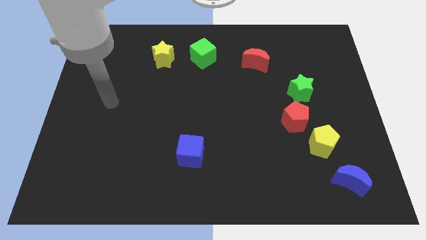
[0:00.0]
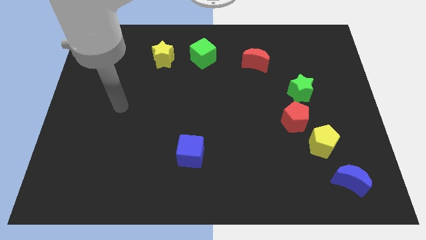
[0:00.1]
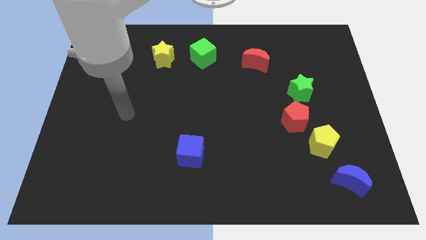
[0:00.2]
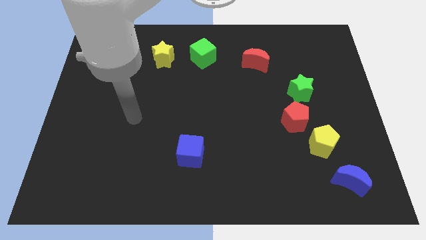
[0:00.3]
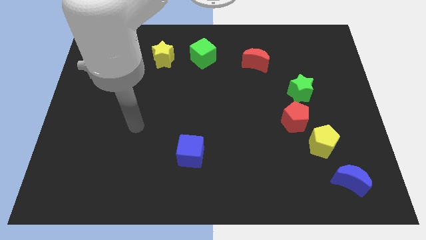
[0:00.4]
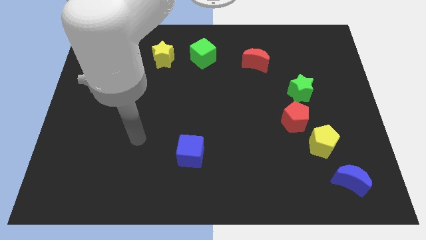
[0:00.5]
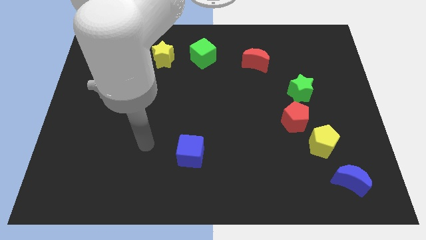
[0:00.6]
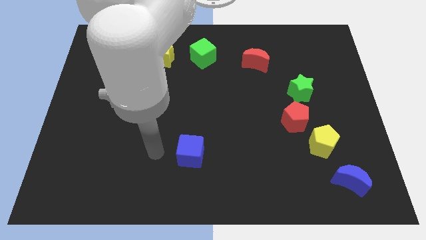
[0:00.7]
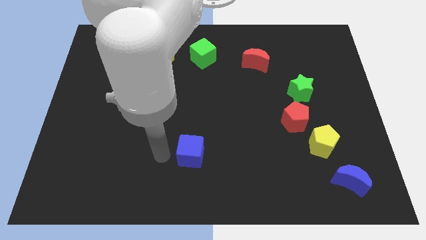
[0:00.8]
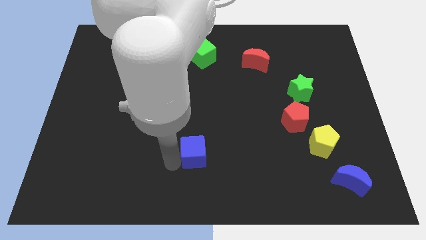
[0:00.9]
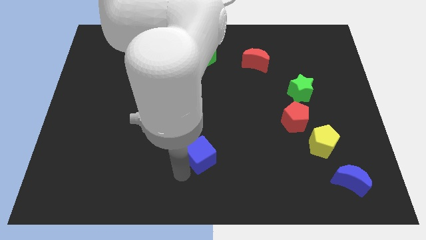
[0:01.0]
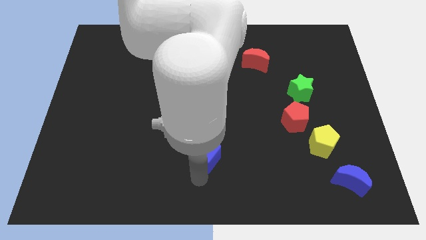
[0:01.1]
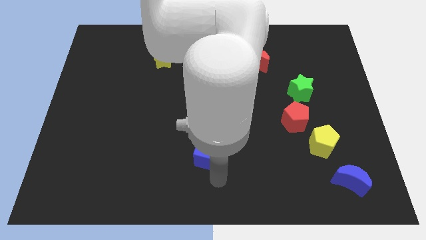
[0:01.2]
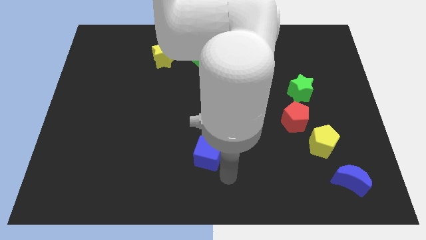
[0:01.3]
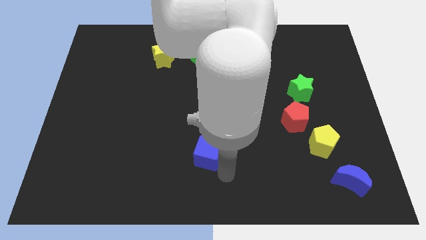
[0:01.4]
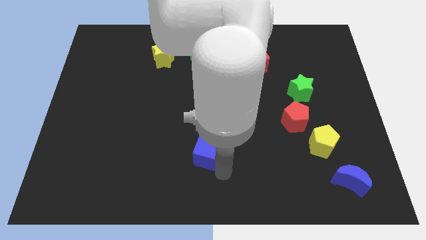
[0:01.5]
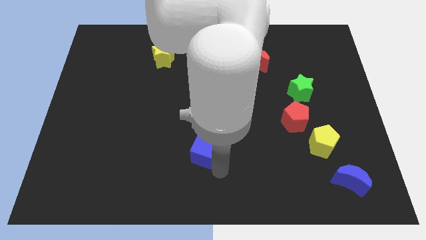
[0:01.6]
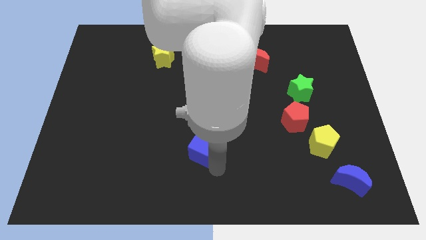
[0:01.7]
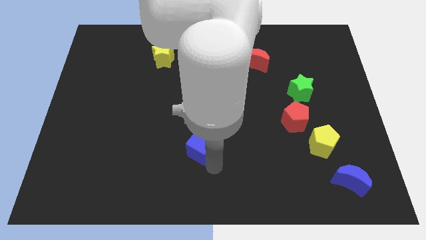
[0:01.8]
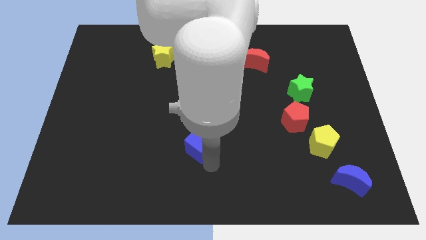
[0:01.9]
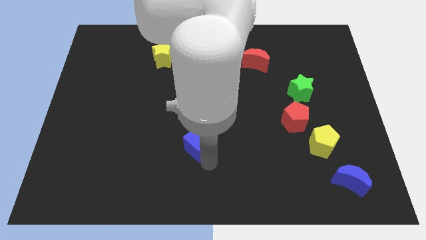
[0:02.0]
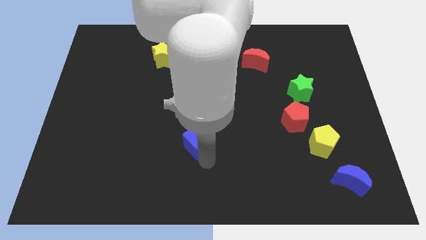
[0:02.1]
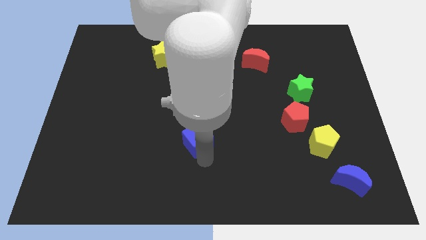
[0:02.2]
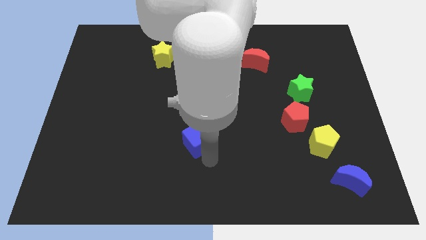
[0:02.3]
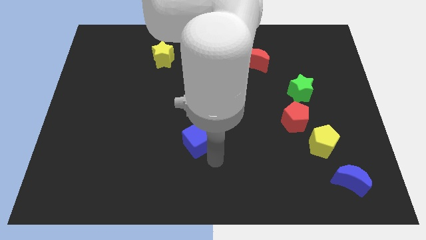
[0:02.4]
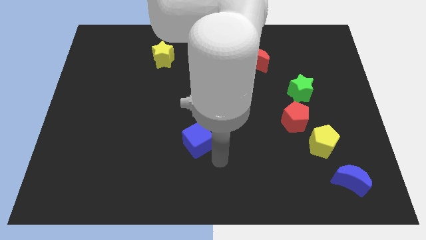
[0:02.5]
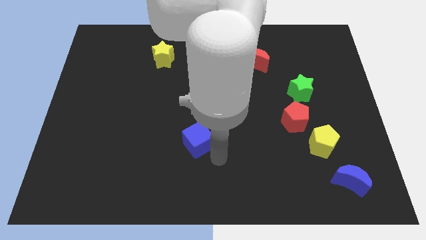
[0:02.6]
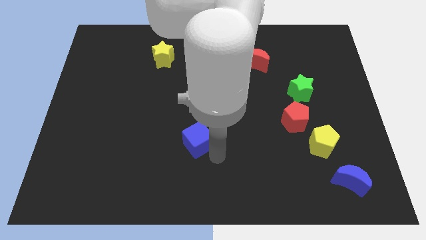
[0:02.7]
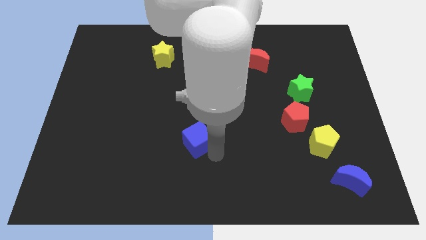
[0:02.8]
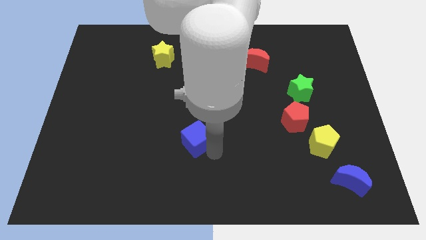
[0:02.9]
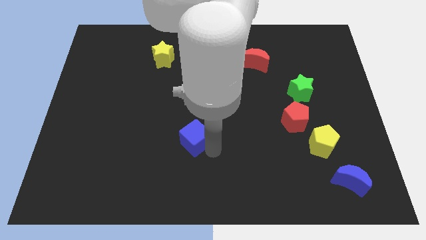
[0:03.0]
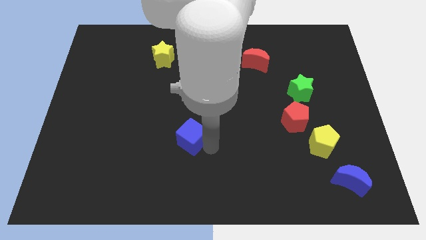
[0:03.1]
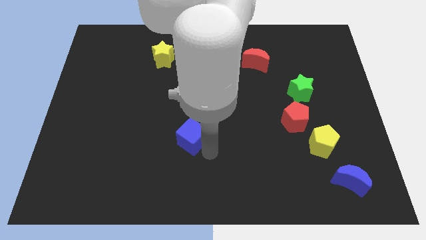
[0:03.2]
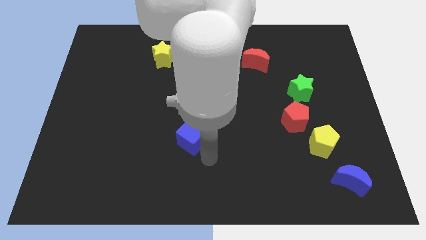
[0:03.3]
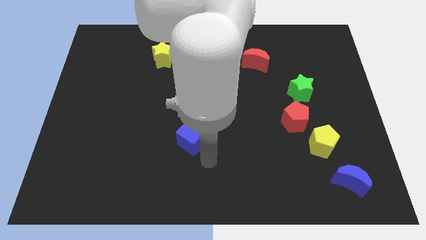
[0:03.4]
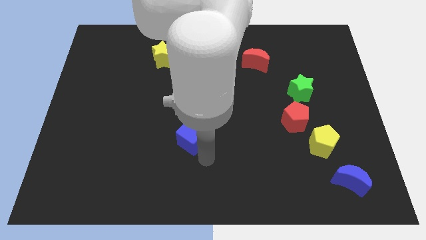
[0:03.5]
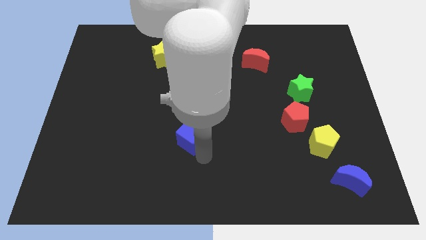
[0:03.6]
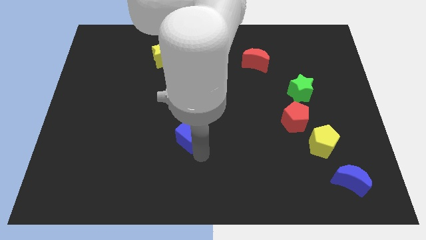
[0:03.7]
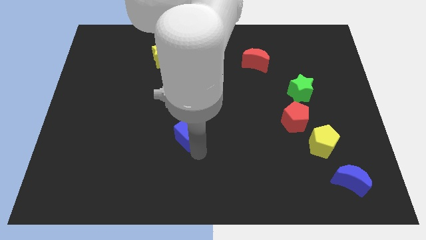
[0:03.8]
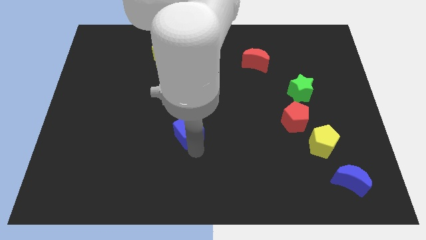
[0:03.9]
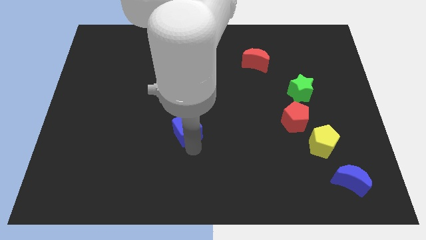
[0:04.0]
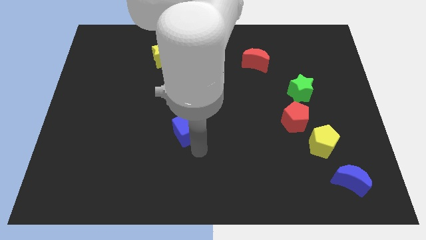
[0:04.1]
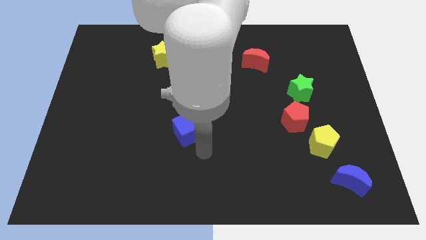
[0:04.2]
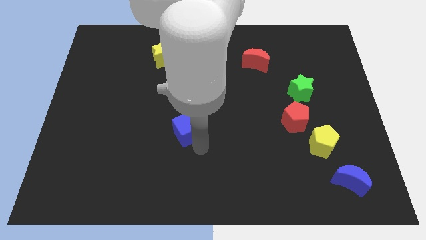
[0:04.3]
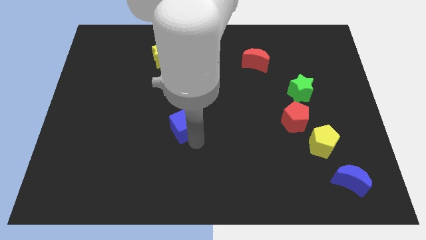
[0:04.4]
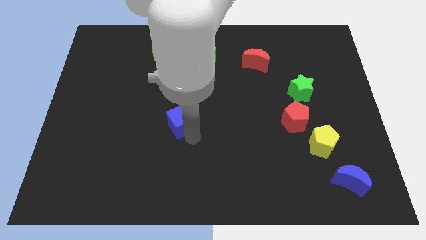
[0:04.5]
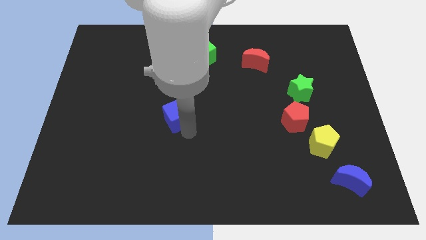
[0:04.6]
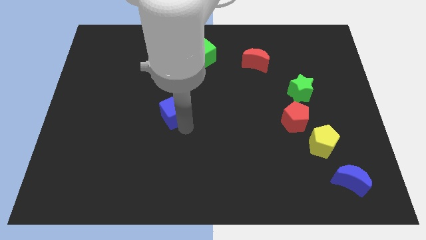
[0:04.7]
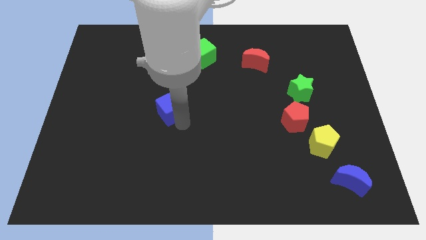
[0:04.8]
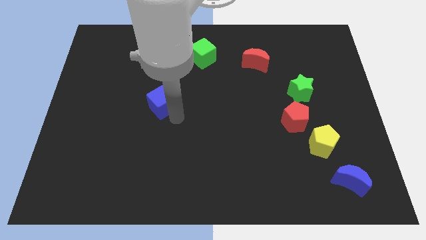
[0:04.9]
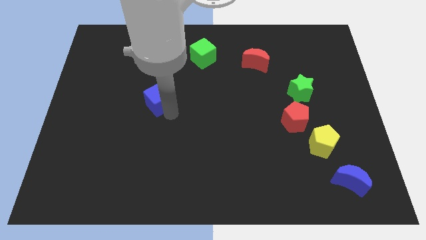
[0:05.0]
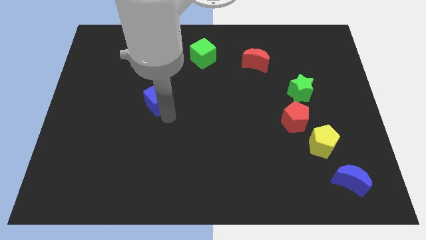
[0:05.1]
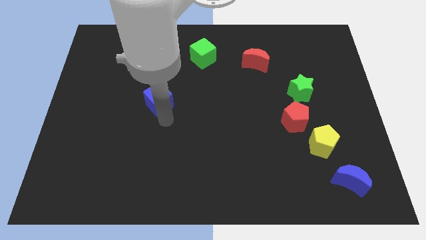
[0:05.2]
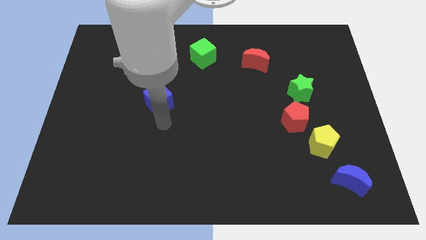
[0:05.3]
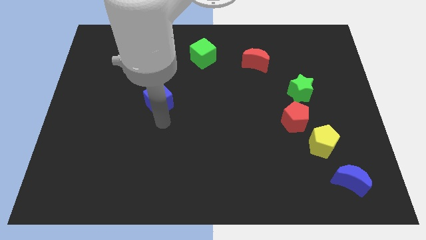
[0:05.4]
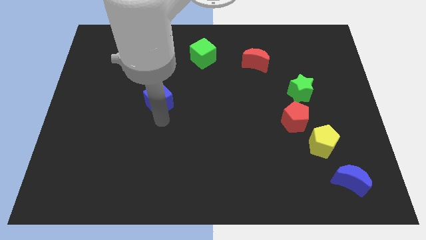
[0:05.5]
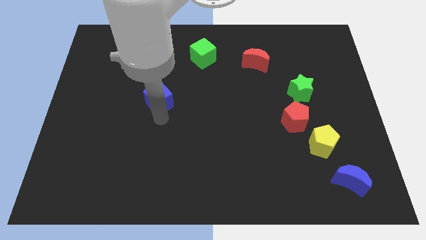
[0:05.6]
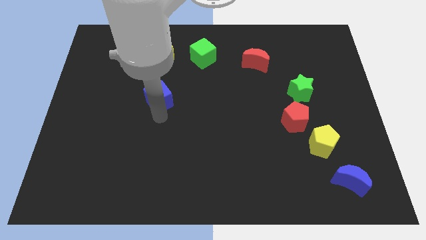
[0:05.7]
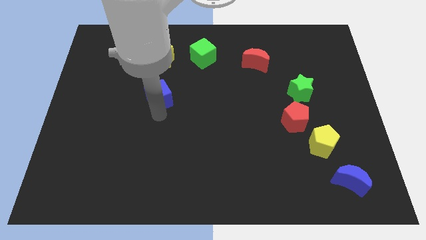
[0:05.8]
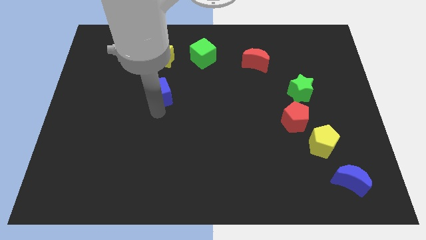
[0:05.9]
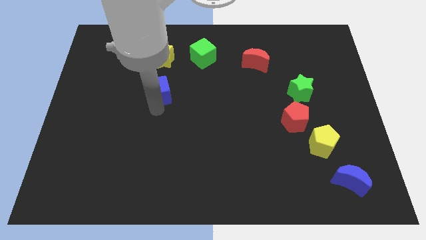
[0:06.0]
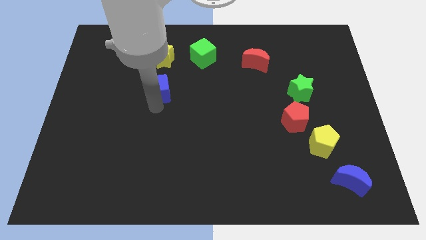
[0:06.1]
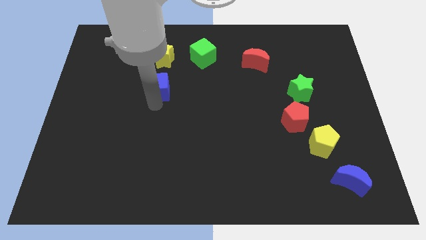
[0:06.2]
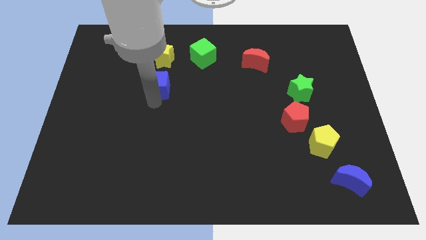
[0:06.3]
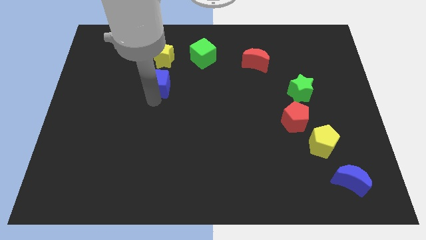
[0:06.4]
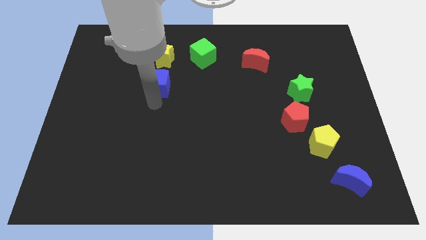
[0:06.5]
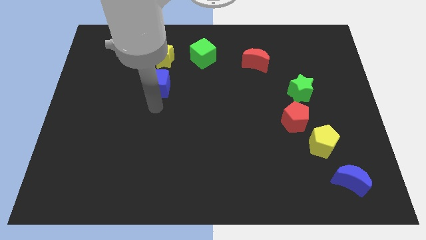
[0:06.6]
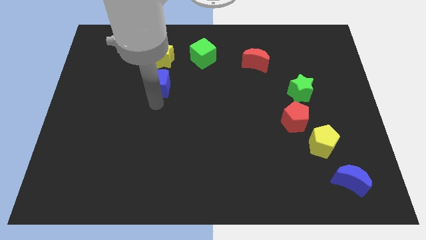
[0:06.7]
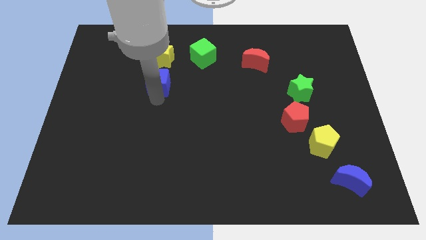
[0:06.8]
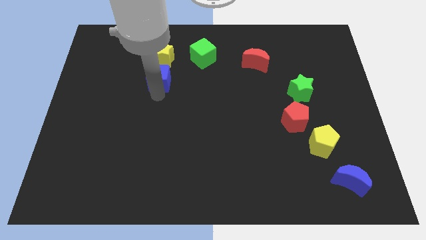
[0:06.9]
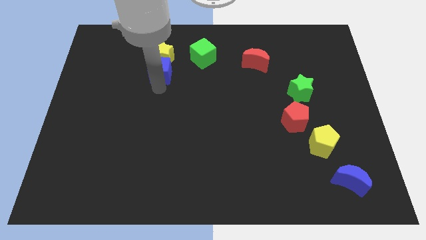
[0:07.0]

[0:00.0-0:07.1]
push the blue cube to the yellow star
